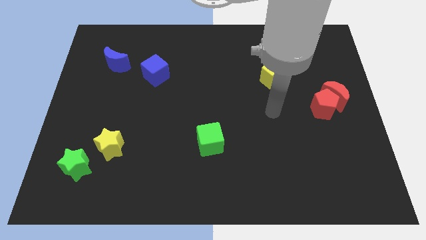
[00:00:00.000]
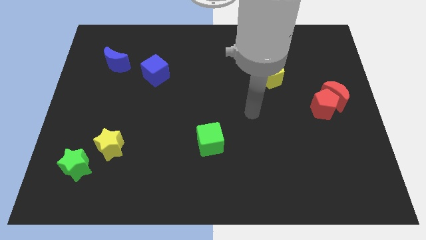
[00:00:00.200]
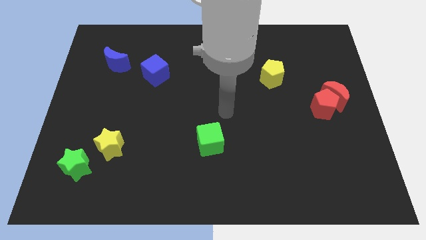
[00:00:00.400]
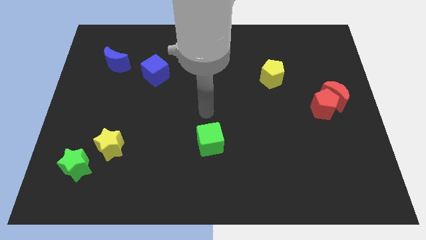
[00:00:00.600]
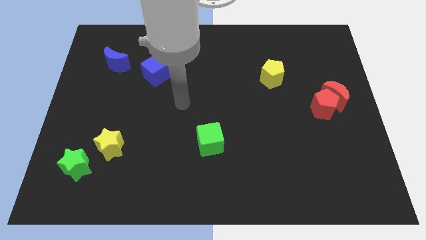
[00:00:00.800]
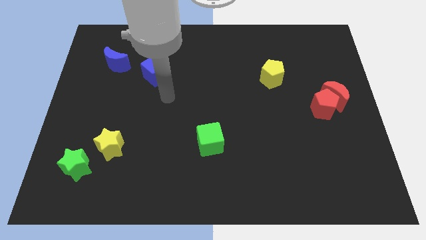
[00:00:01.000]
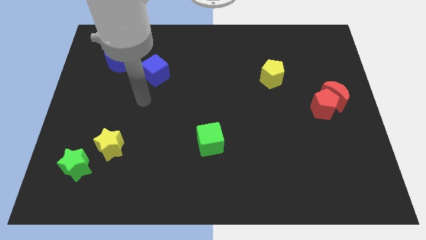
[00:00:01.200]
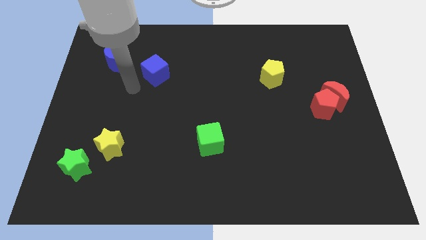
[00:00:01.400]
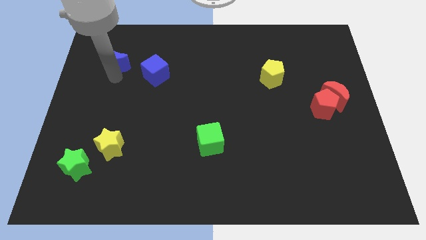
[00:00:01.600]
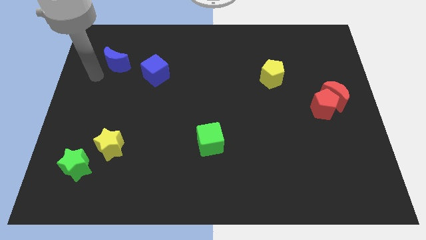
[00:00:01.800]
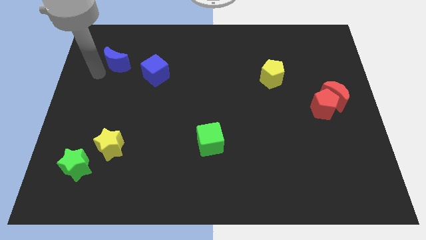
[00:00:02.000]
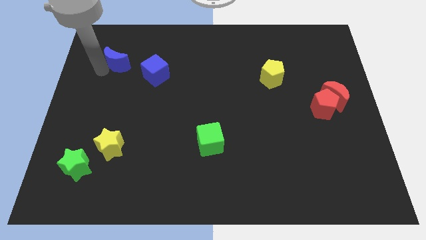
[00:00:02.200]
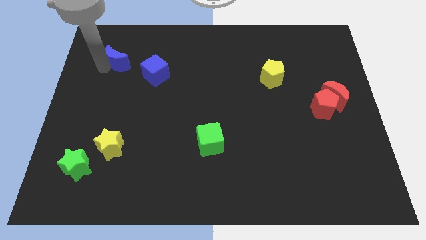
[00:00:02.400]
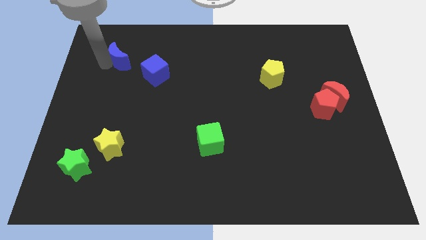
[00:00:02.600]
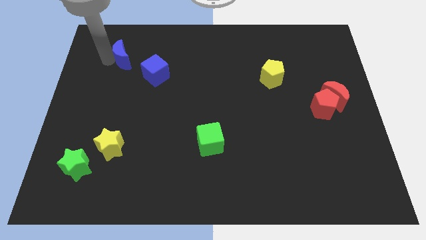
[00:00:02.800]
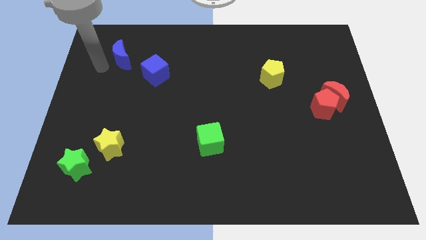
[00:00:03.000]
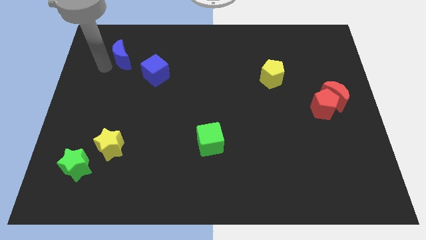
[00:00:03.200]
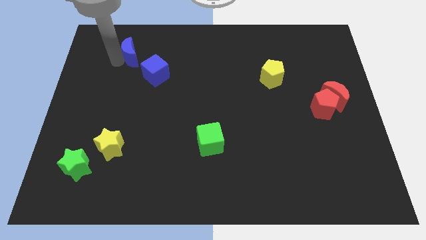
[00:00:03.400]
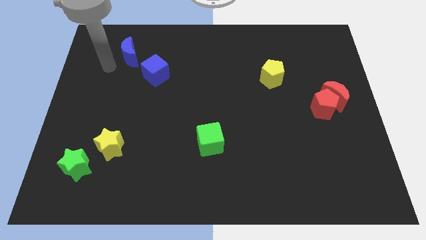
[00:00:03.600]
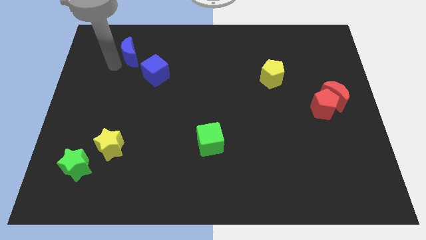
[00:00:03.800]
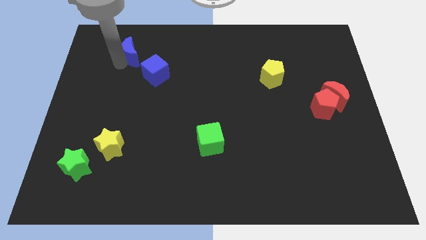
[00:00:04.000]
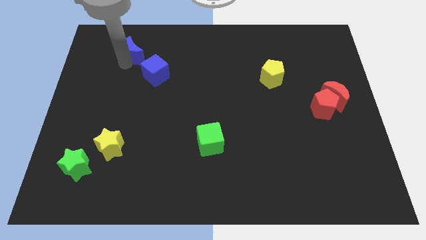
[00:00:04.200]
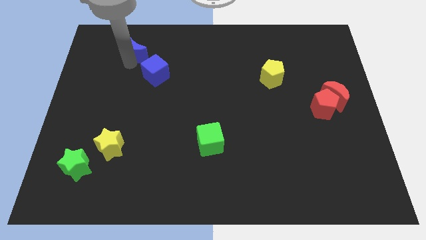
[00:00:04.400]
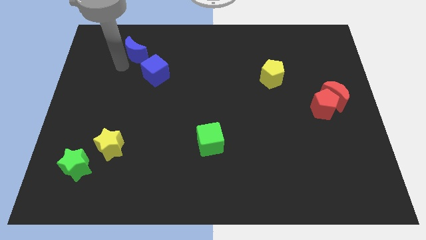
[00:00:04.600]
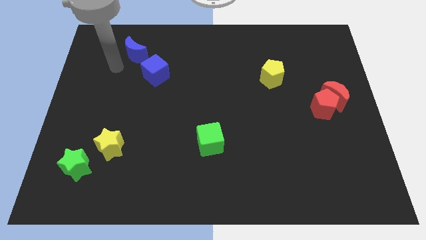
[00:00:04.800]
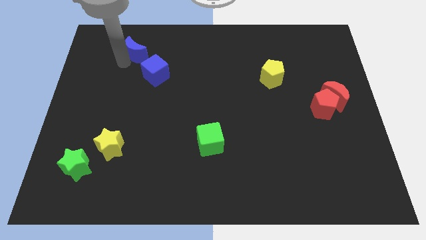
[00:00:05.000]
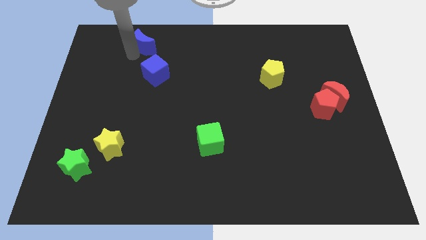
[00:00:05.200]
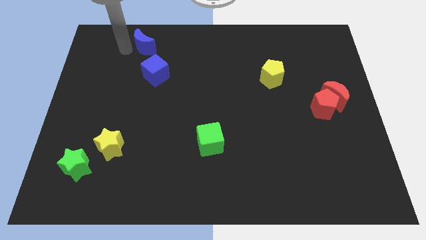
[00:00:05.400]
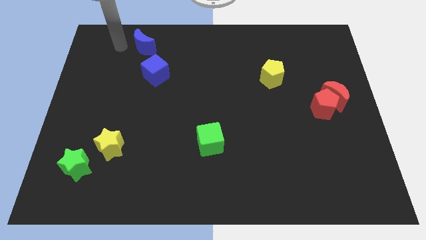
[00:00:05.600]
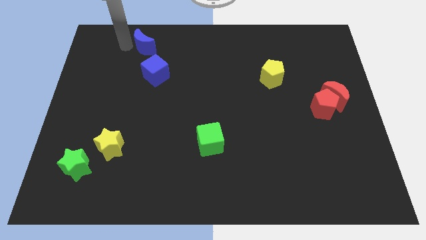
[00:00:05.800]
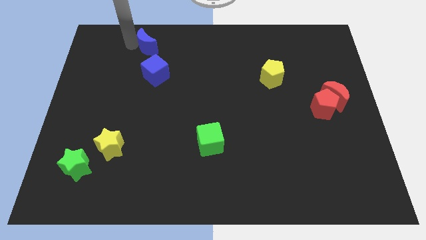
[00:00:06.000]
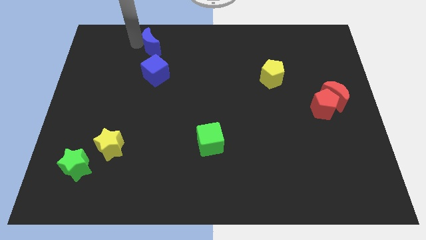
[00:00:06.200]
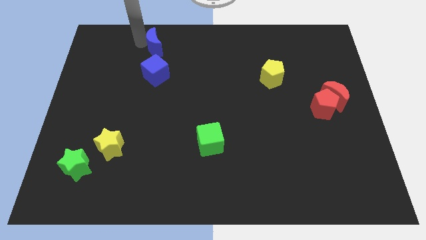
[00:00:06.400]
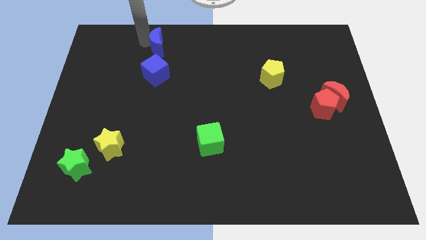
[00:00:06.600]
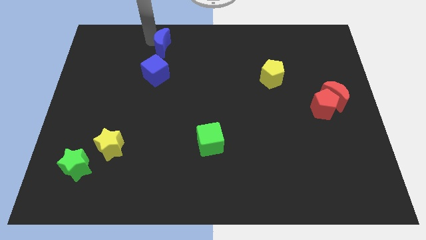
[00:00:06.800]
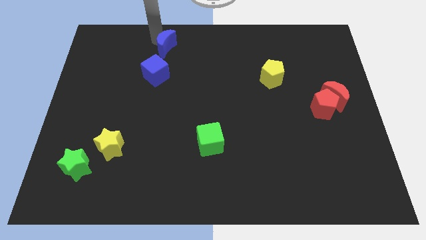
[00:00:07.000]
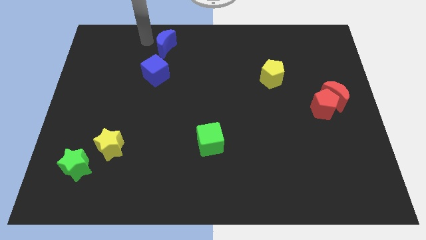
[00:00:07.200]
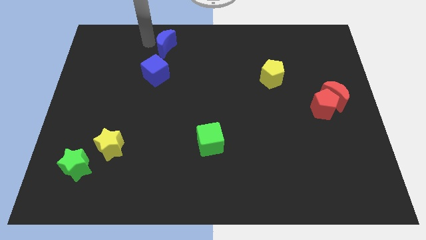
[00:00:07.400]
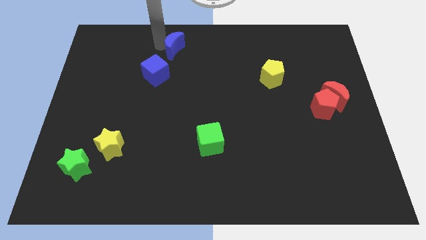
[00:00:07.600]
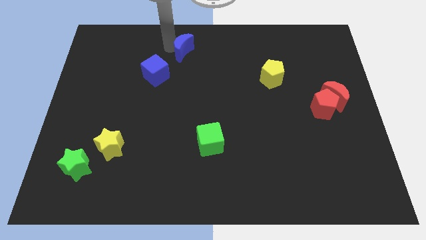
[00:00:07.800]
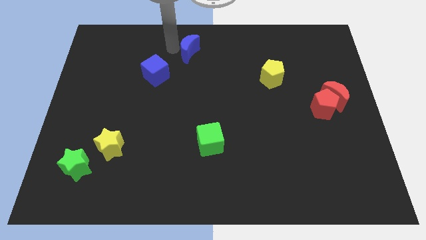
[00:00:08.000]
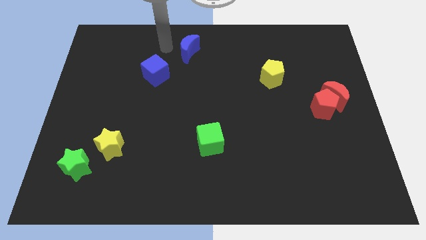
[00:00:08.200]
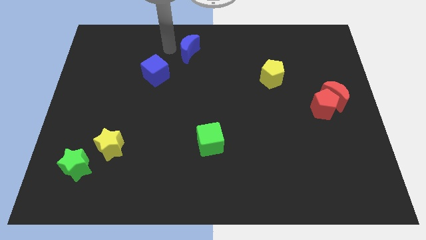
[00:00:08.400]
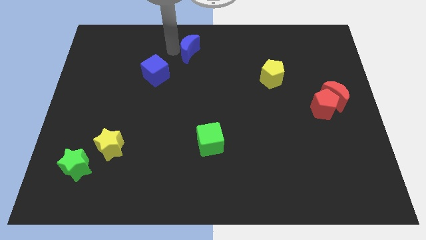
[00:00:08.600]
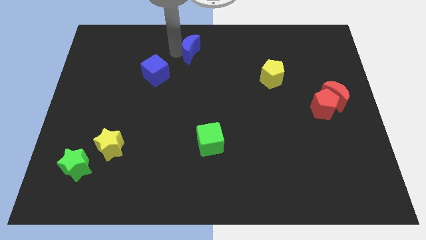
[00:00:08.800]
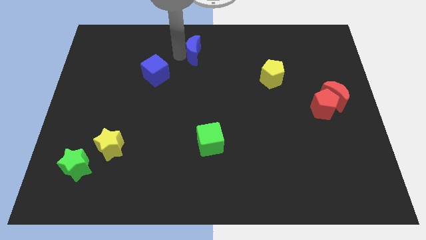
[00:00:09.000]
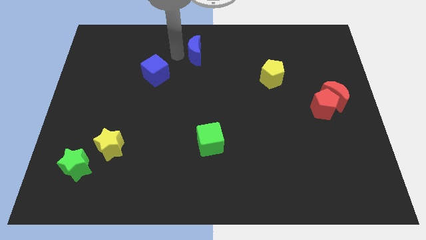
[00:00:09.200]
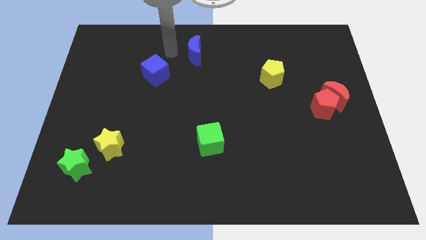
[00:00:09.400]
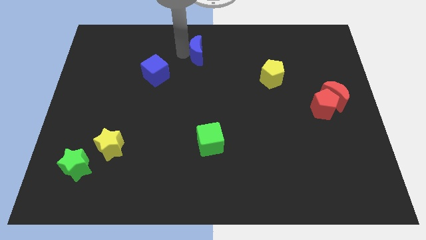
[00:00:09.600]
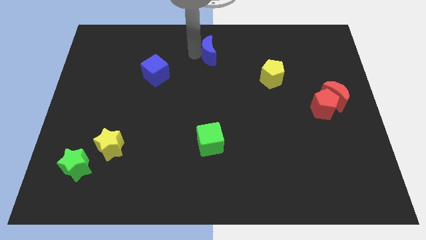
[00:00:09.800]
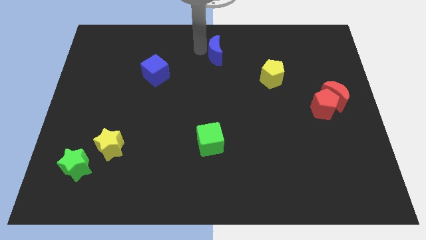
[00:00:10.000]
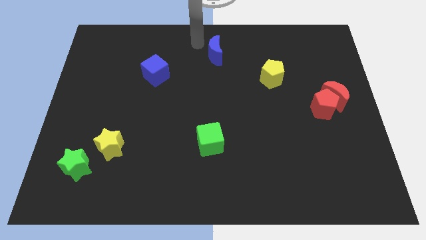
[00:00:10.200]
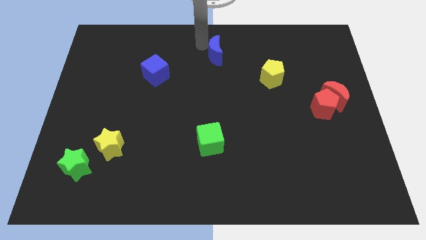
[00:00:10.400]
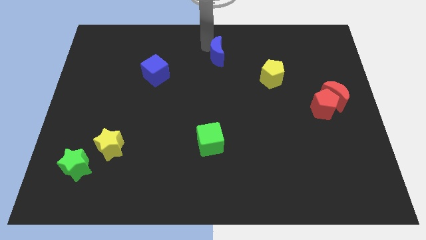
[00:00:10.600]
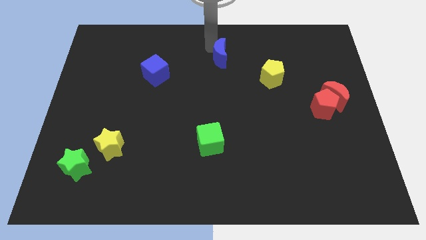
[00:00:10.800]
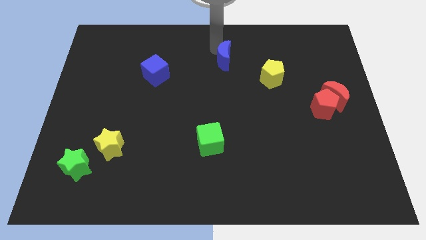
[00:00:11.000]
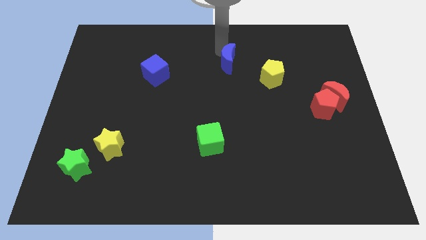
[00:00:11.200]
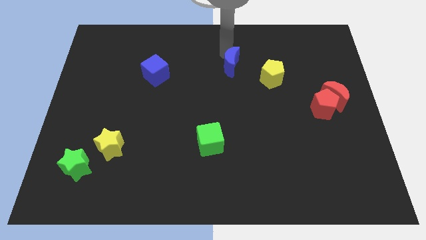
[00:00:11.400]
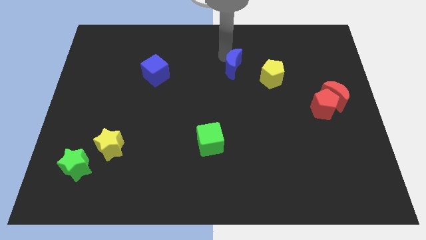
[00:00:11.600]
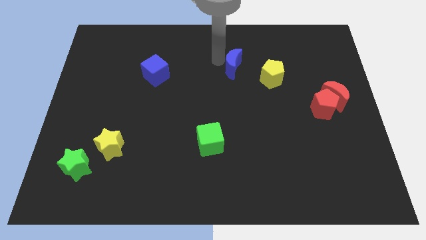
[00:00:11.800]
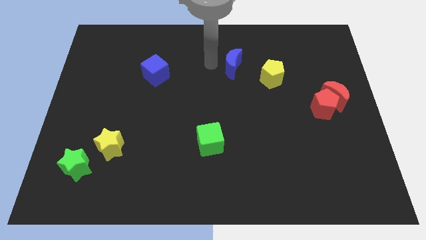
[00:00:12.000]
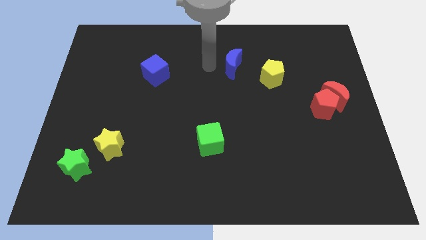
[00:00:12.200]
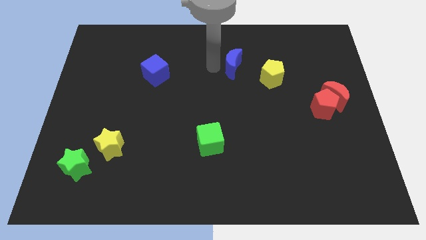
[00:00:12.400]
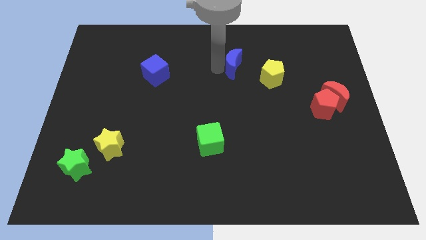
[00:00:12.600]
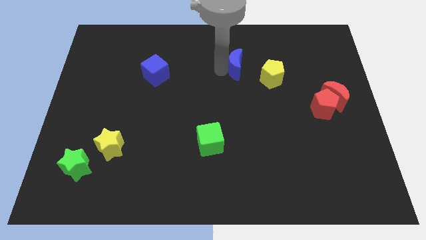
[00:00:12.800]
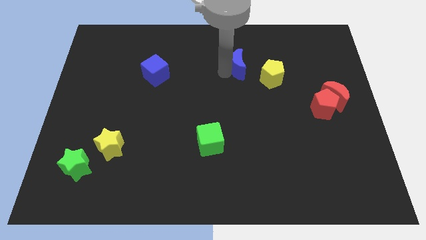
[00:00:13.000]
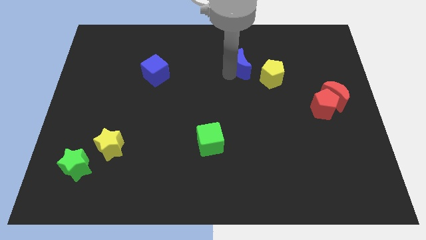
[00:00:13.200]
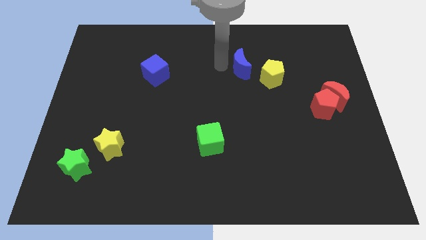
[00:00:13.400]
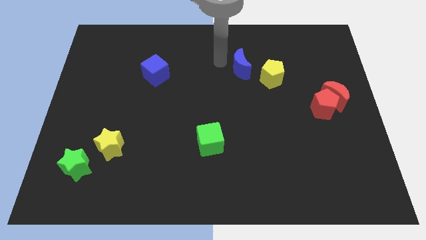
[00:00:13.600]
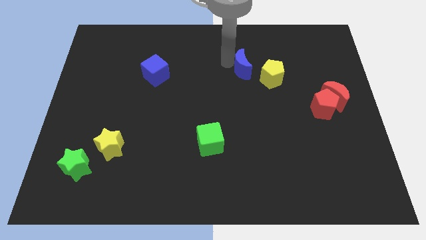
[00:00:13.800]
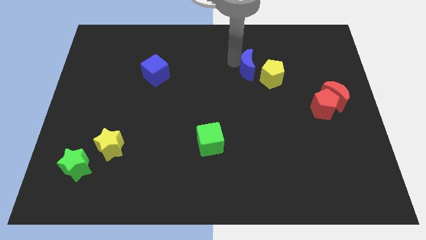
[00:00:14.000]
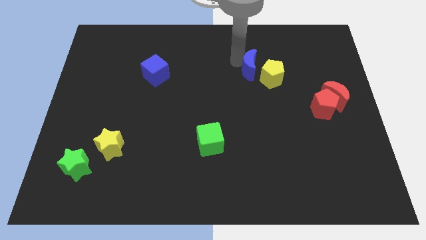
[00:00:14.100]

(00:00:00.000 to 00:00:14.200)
slide the blue moon close to the yellow pentagon
